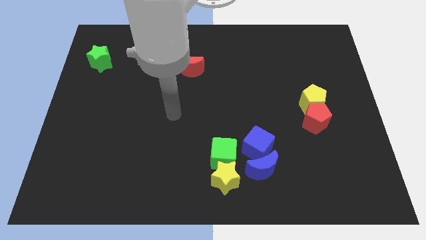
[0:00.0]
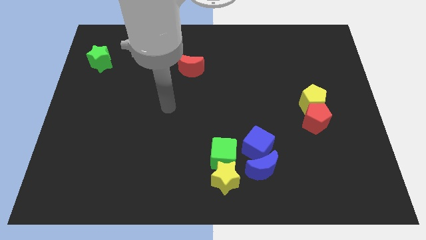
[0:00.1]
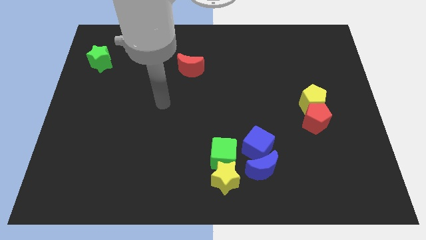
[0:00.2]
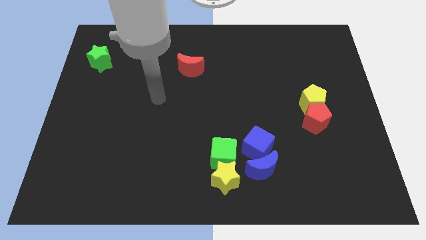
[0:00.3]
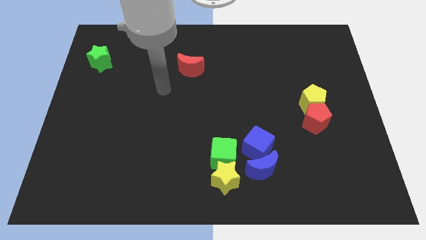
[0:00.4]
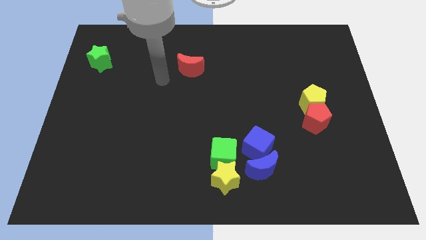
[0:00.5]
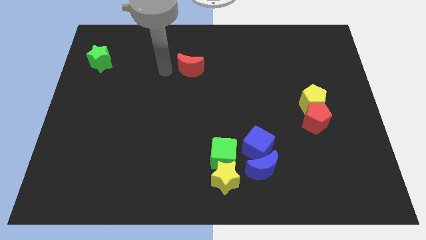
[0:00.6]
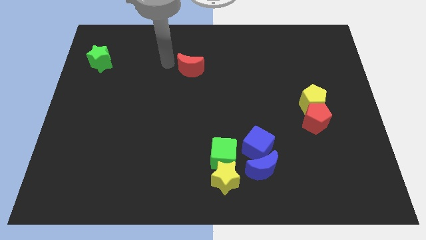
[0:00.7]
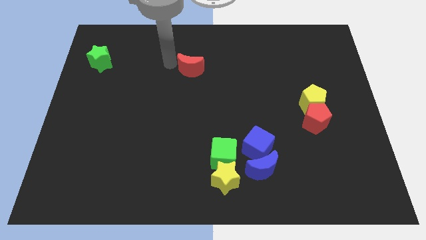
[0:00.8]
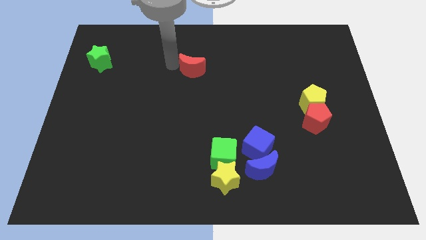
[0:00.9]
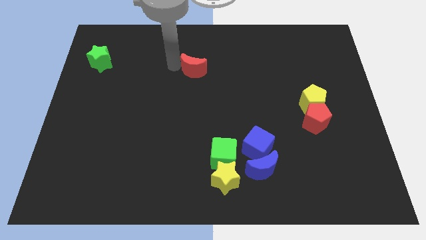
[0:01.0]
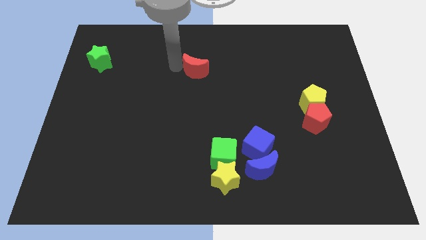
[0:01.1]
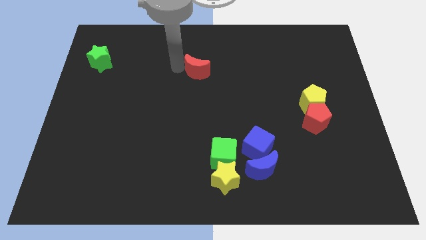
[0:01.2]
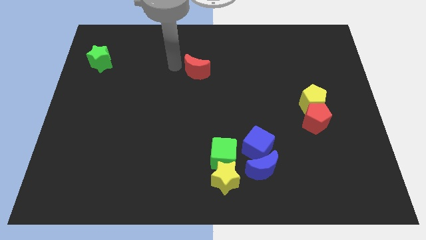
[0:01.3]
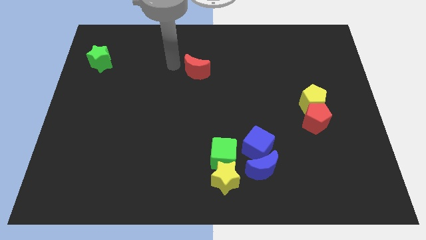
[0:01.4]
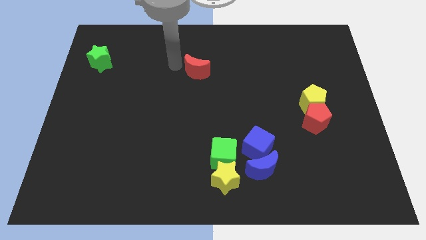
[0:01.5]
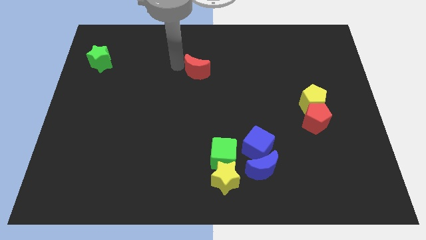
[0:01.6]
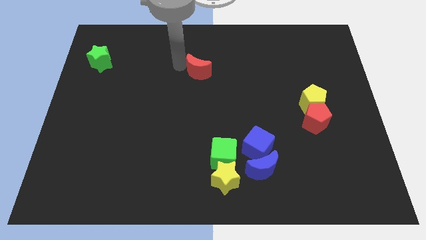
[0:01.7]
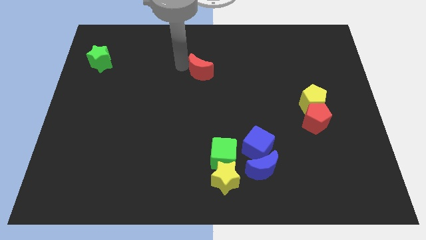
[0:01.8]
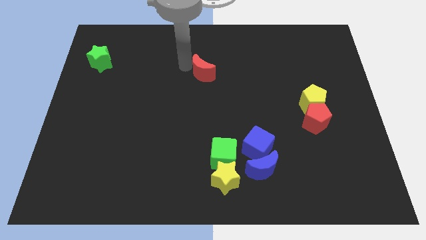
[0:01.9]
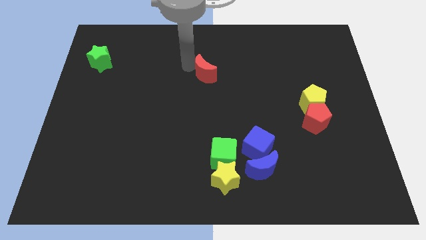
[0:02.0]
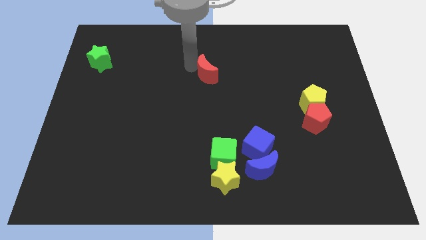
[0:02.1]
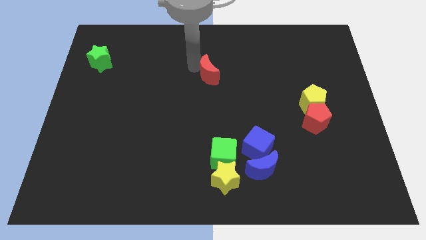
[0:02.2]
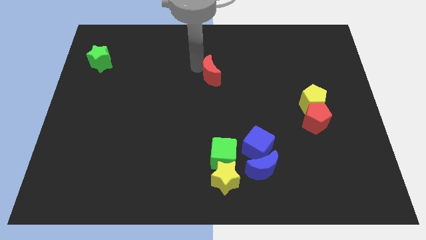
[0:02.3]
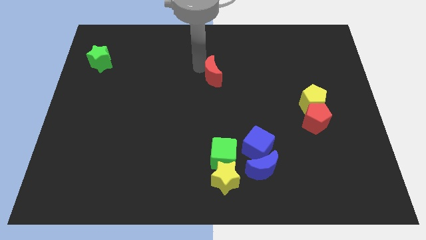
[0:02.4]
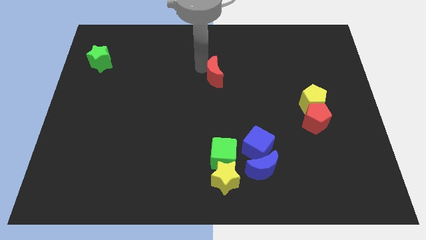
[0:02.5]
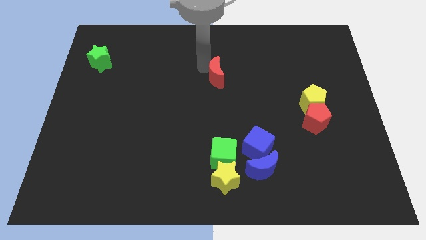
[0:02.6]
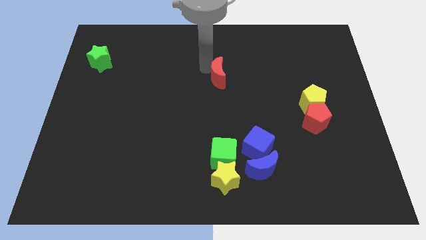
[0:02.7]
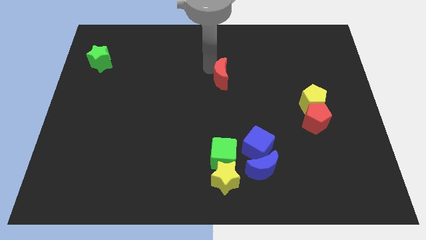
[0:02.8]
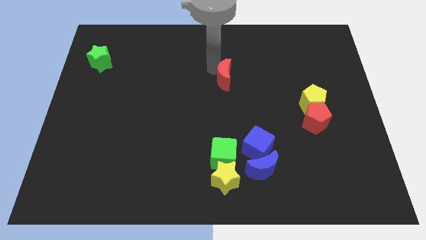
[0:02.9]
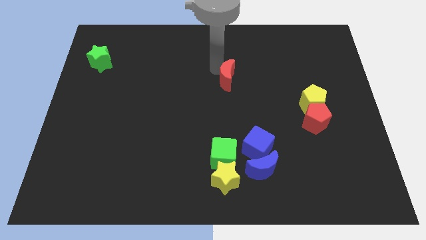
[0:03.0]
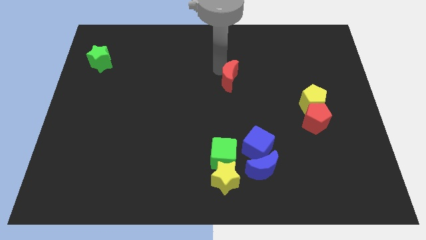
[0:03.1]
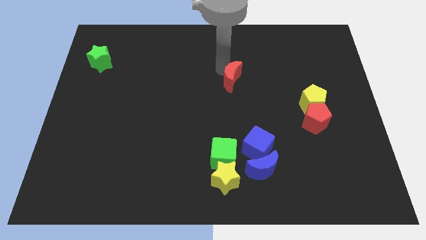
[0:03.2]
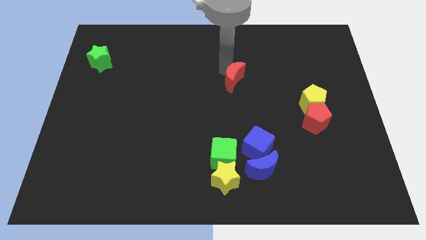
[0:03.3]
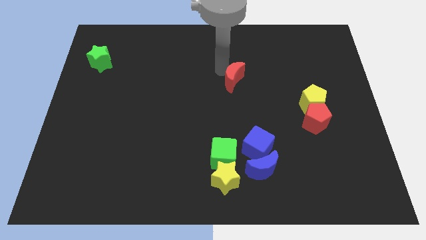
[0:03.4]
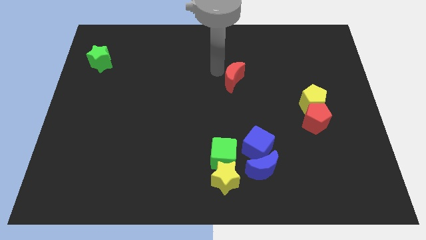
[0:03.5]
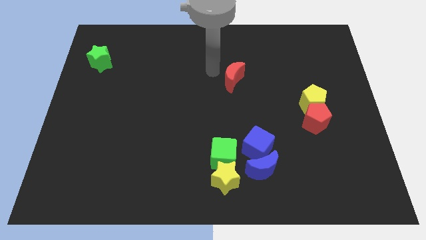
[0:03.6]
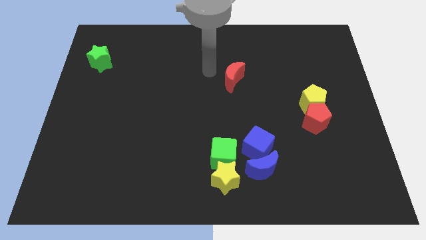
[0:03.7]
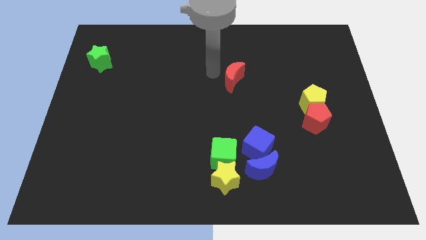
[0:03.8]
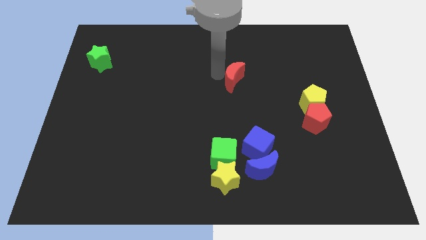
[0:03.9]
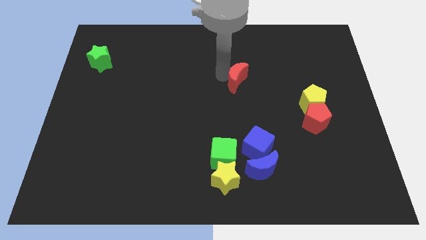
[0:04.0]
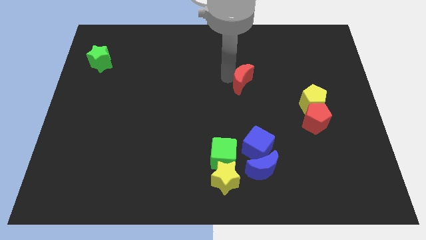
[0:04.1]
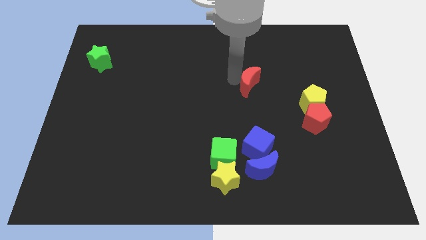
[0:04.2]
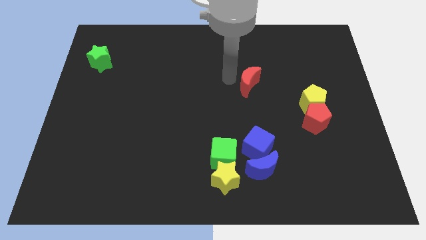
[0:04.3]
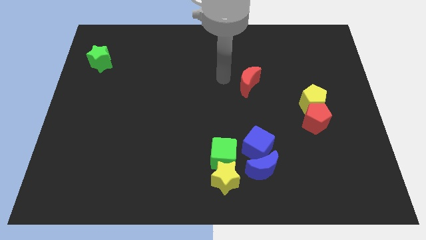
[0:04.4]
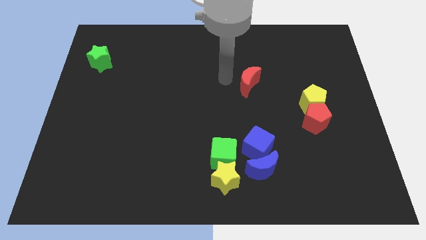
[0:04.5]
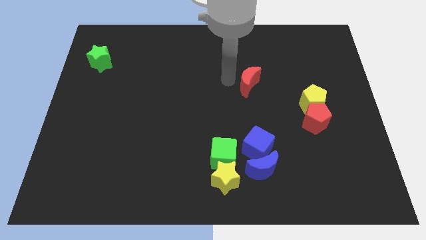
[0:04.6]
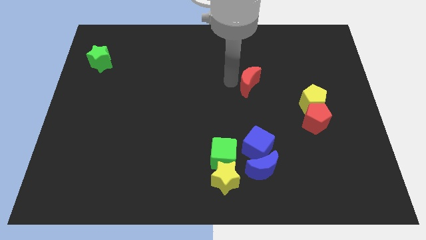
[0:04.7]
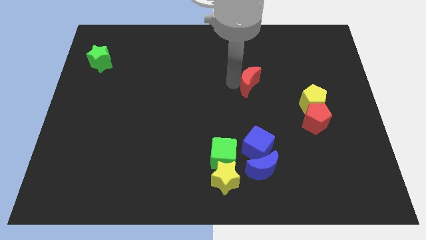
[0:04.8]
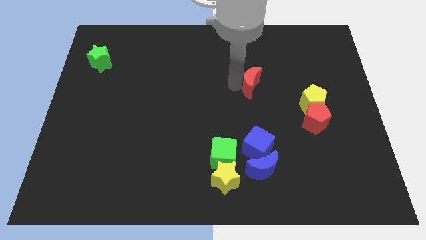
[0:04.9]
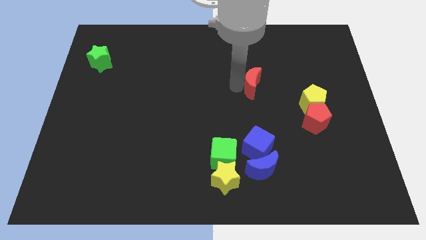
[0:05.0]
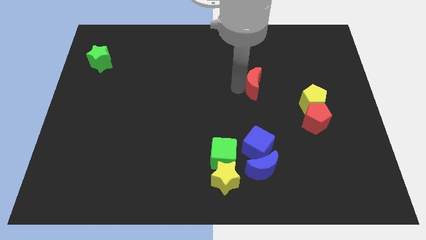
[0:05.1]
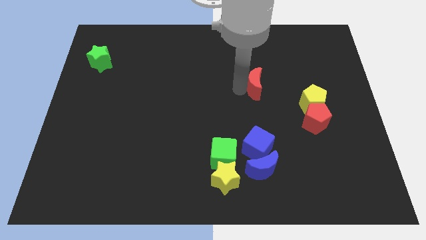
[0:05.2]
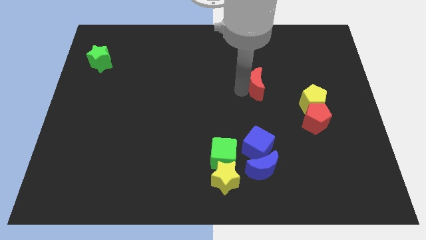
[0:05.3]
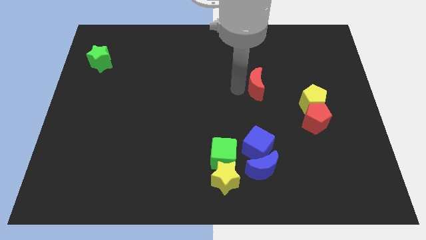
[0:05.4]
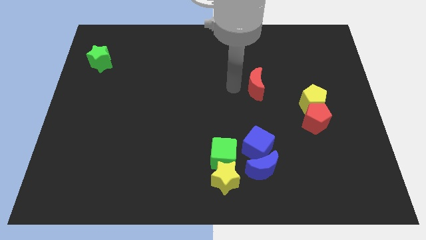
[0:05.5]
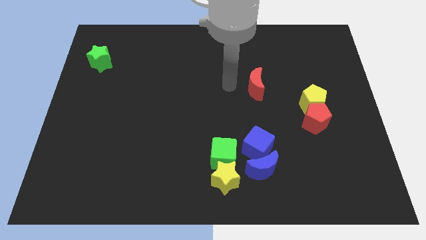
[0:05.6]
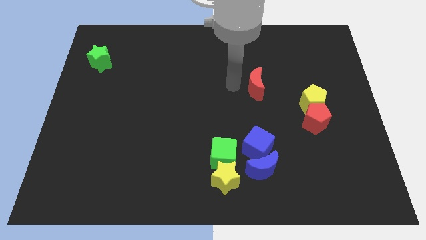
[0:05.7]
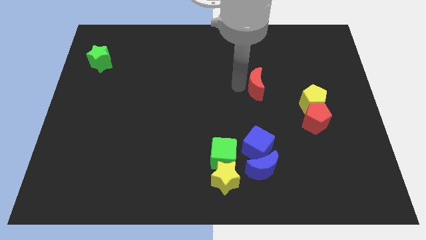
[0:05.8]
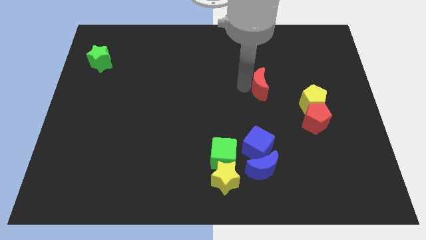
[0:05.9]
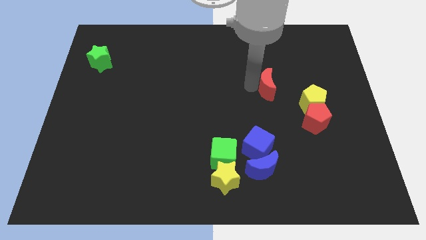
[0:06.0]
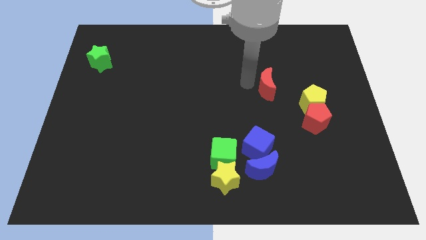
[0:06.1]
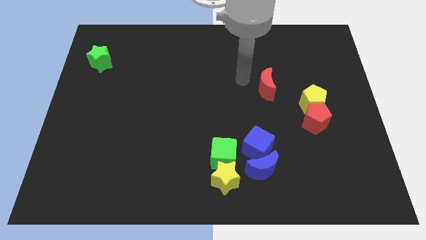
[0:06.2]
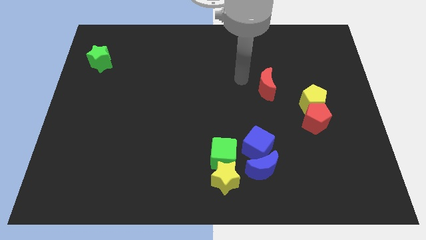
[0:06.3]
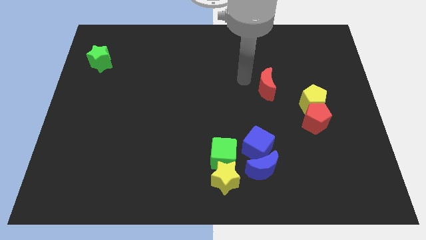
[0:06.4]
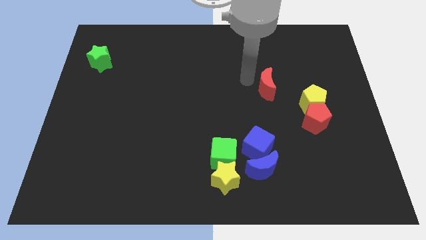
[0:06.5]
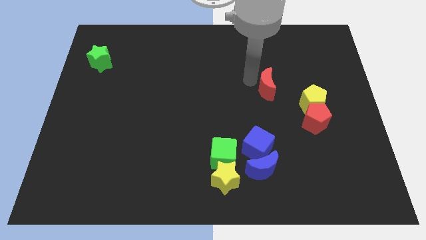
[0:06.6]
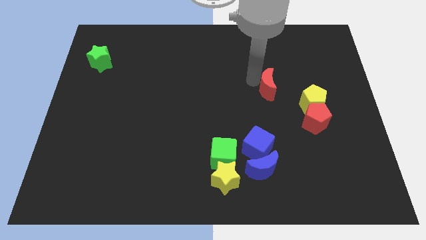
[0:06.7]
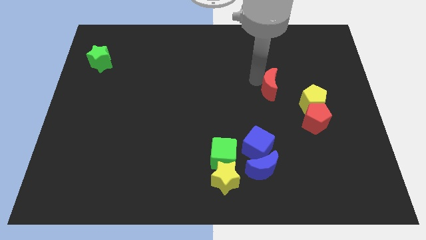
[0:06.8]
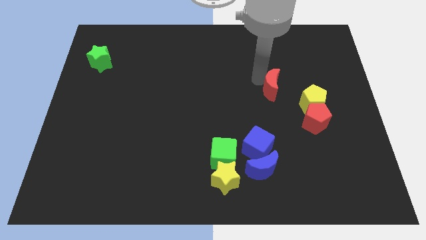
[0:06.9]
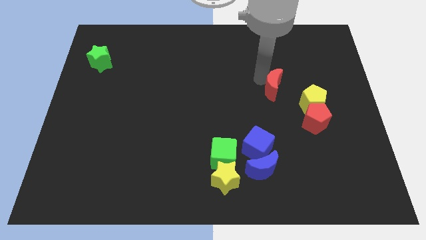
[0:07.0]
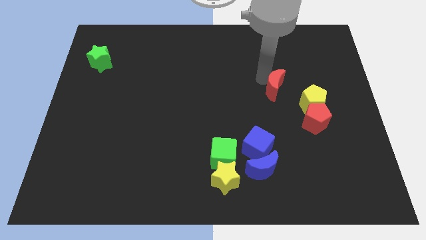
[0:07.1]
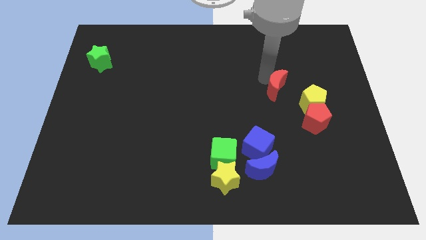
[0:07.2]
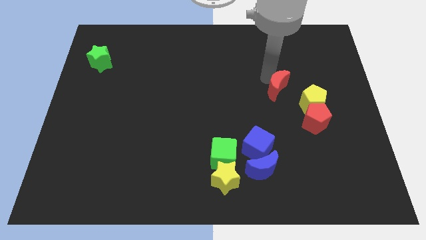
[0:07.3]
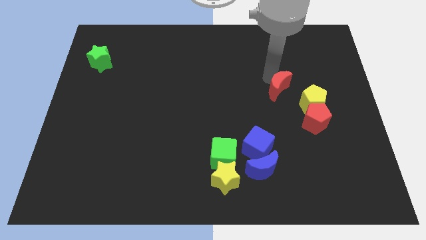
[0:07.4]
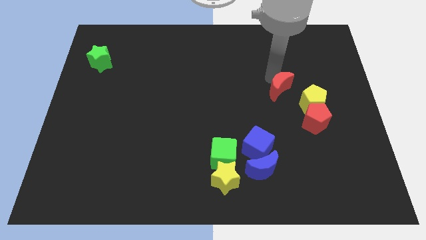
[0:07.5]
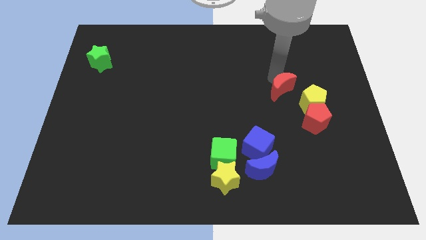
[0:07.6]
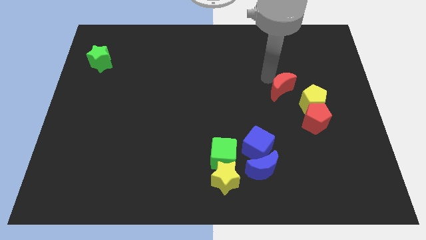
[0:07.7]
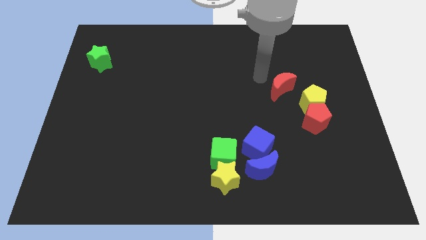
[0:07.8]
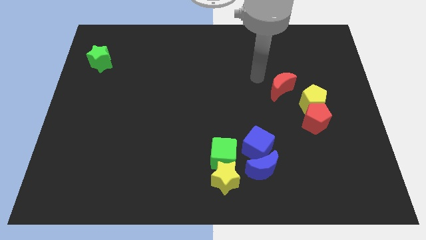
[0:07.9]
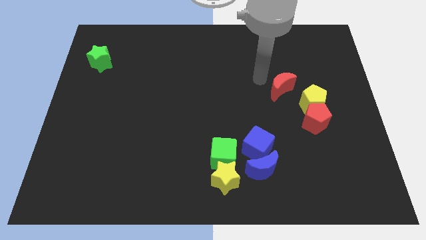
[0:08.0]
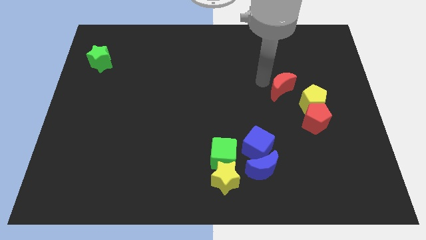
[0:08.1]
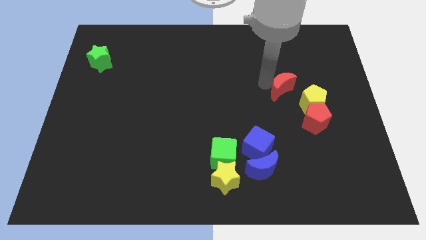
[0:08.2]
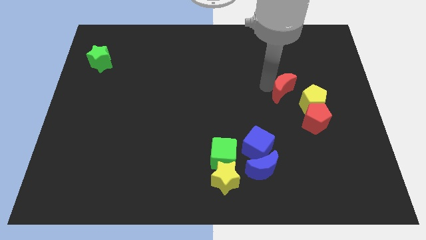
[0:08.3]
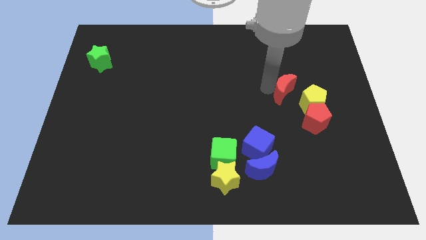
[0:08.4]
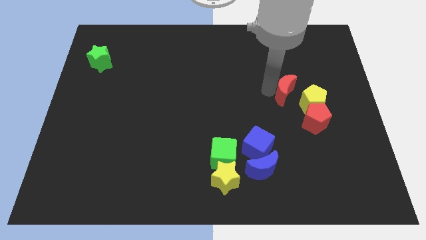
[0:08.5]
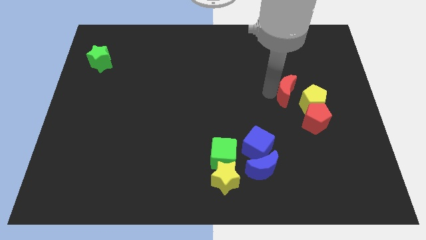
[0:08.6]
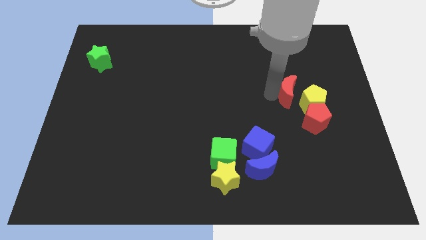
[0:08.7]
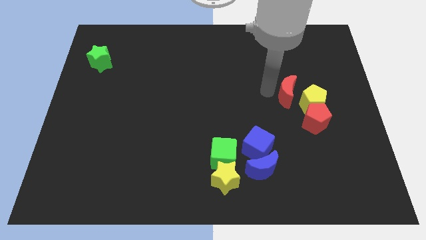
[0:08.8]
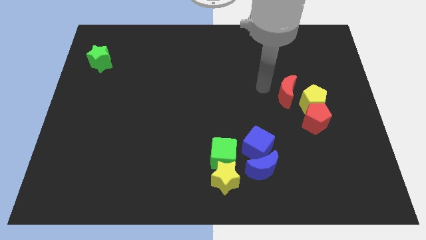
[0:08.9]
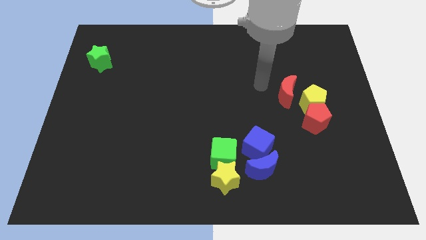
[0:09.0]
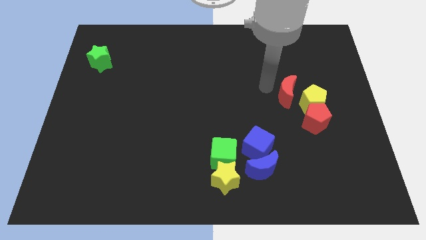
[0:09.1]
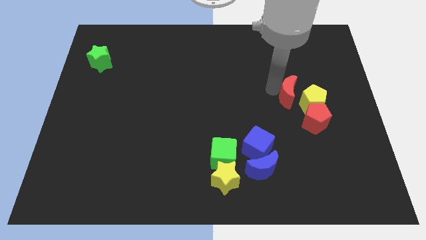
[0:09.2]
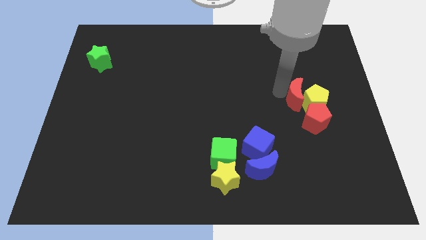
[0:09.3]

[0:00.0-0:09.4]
push the red moon next to the yellow pentagon
